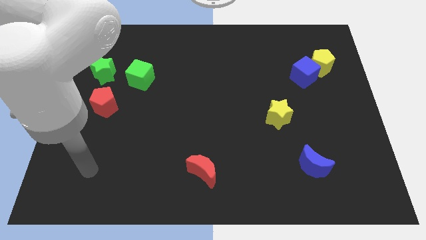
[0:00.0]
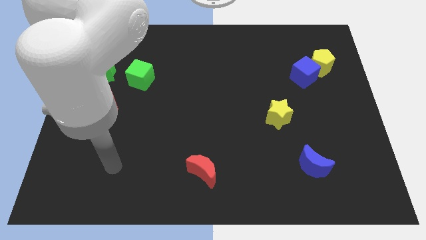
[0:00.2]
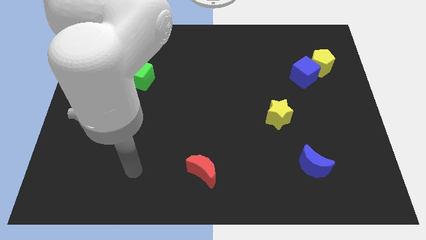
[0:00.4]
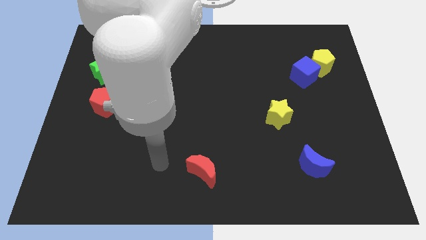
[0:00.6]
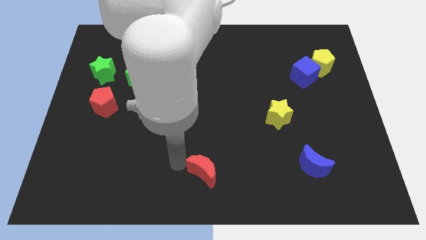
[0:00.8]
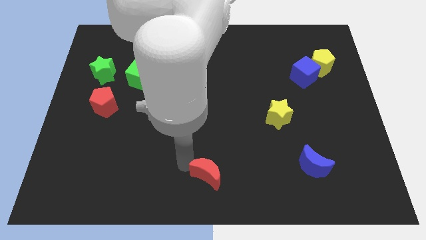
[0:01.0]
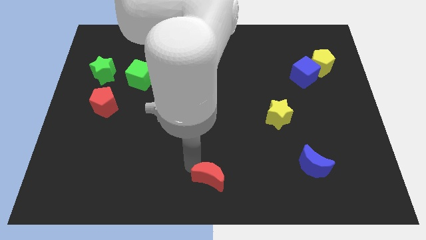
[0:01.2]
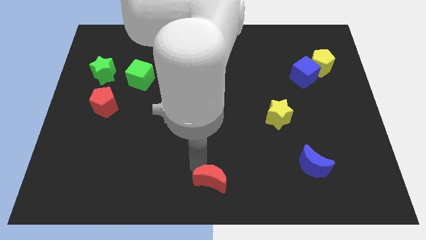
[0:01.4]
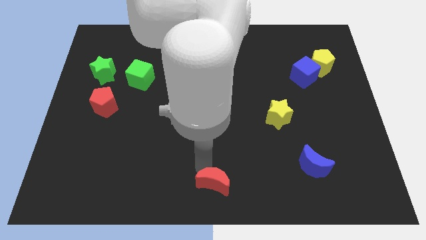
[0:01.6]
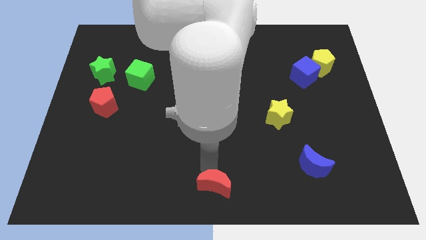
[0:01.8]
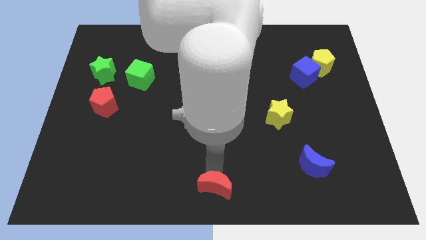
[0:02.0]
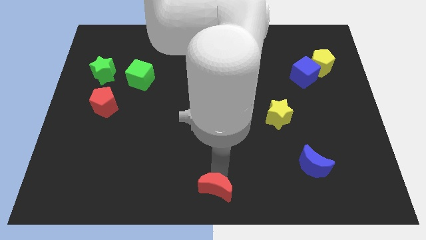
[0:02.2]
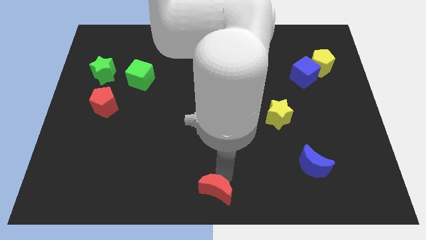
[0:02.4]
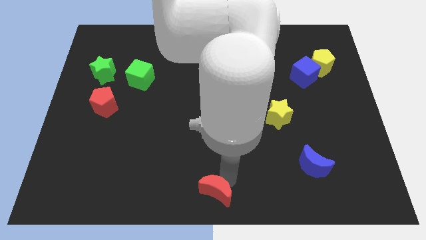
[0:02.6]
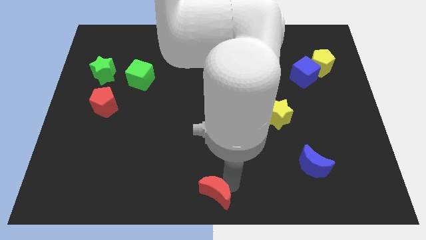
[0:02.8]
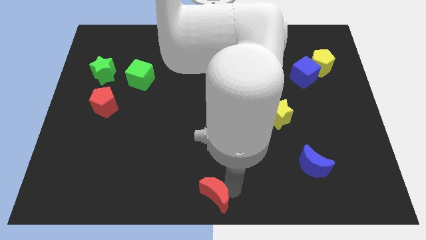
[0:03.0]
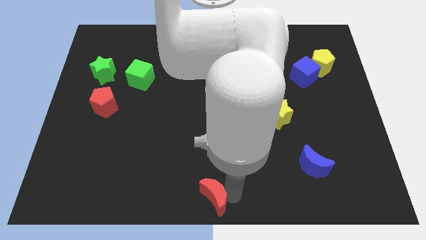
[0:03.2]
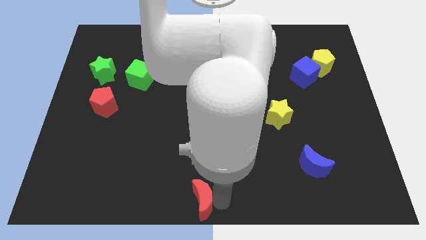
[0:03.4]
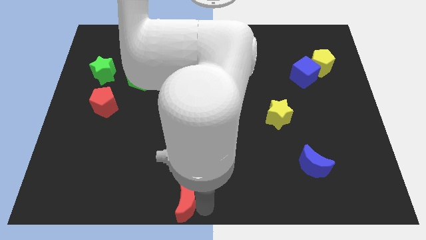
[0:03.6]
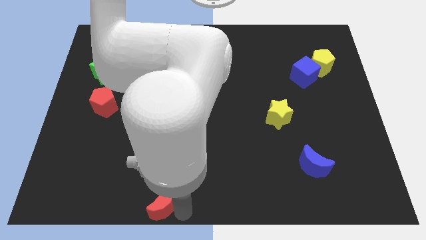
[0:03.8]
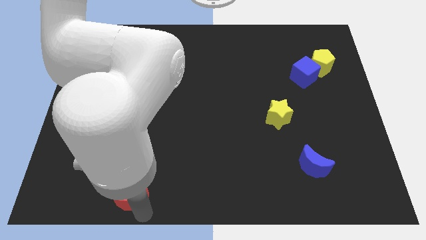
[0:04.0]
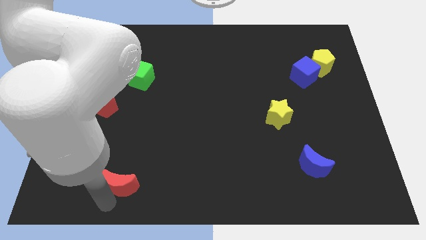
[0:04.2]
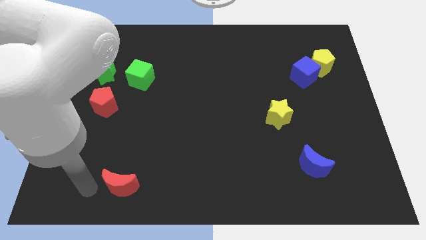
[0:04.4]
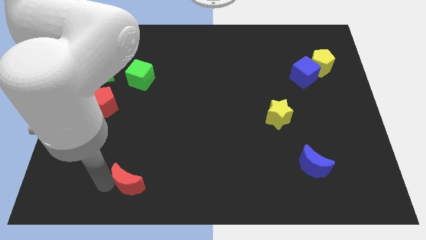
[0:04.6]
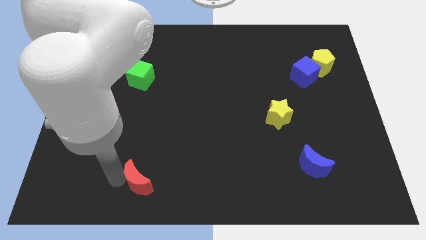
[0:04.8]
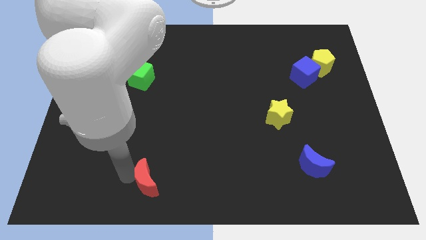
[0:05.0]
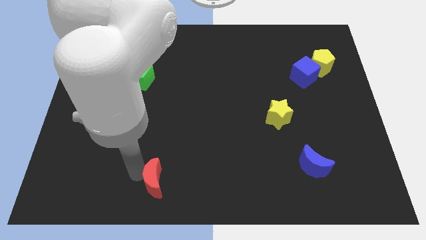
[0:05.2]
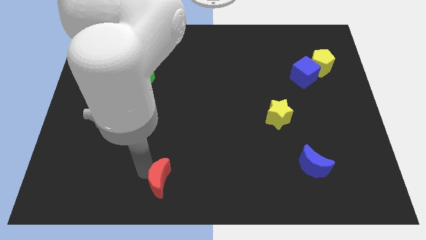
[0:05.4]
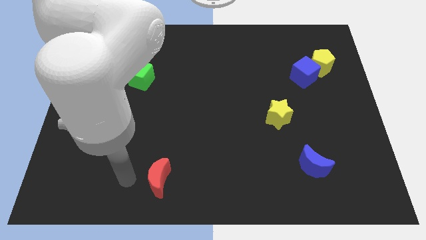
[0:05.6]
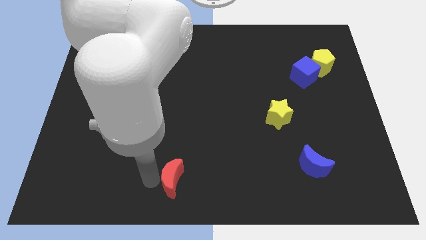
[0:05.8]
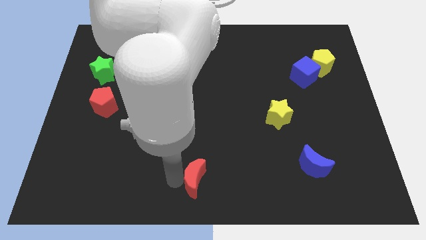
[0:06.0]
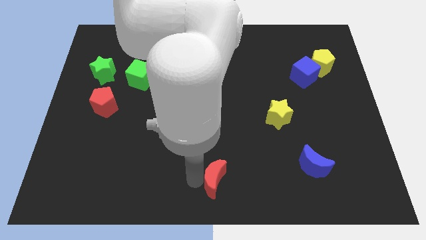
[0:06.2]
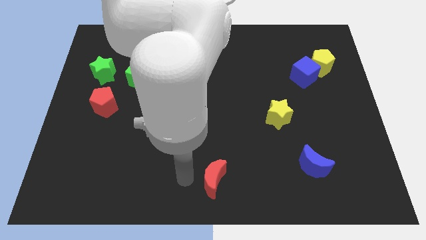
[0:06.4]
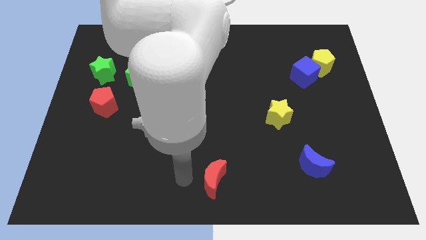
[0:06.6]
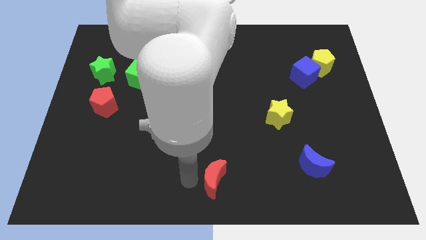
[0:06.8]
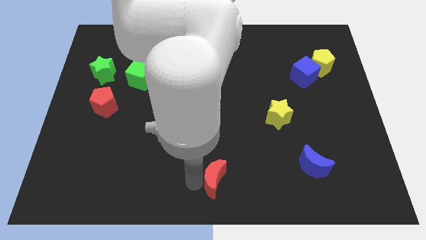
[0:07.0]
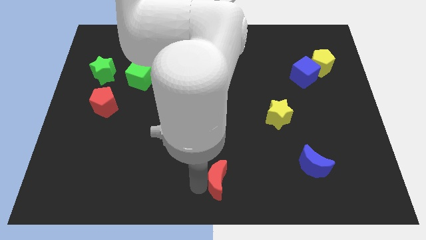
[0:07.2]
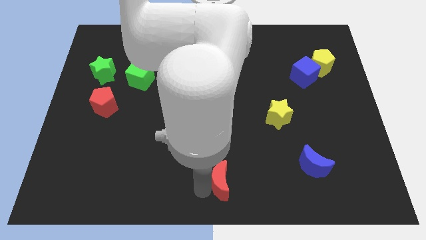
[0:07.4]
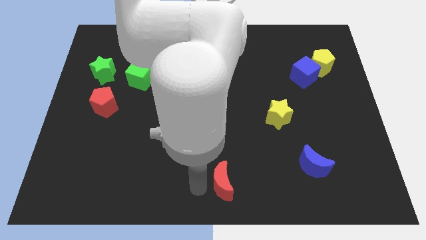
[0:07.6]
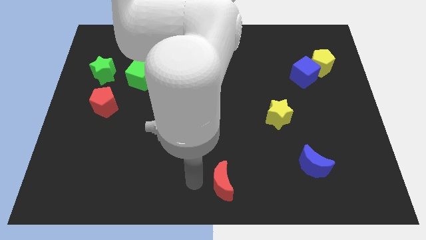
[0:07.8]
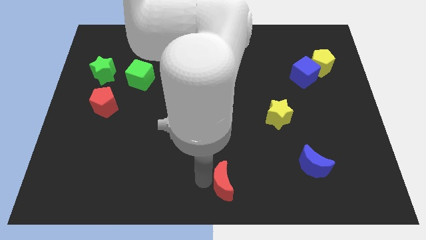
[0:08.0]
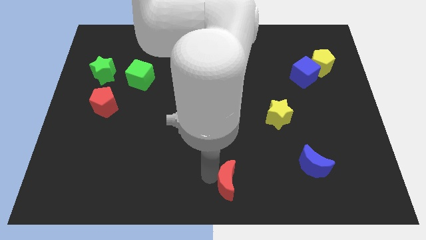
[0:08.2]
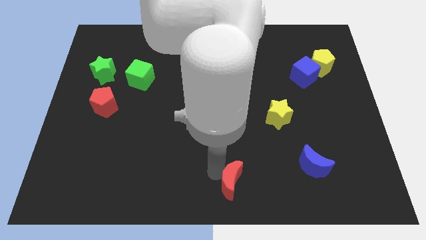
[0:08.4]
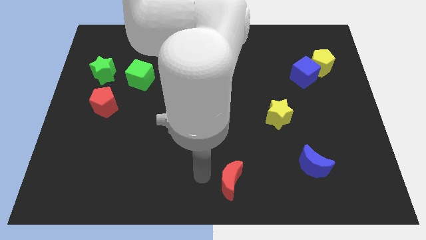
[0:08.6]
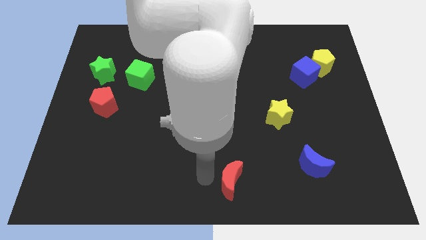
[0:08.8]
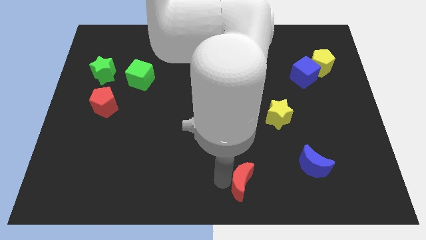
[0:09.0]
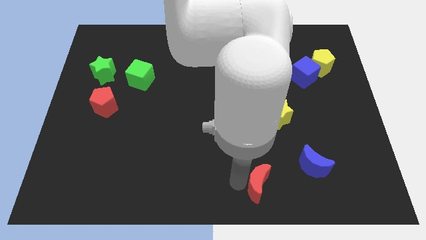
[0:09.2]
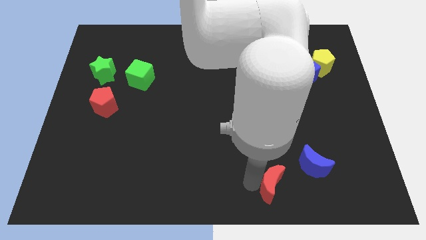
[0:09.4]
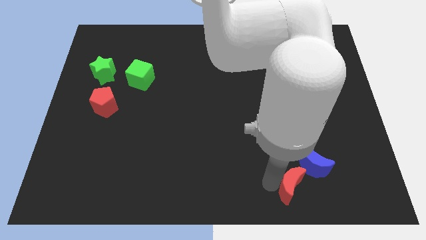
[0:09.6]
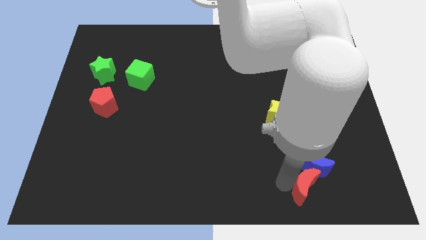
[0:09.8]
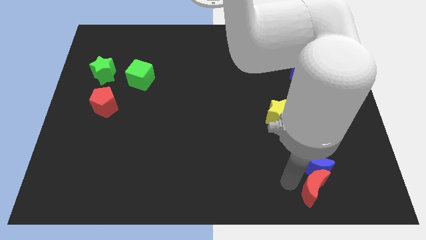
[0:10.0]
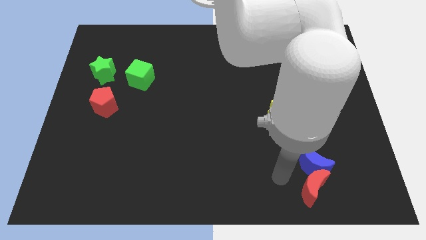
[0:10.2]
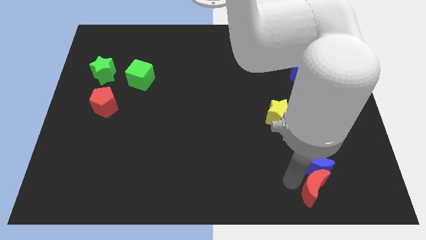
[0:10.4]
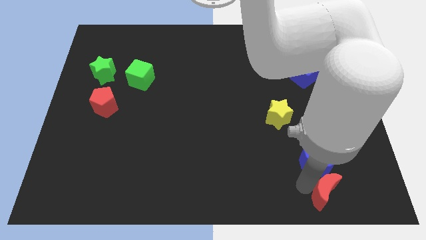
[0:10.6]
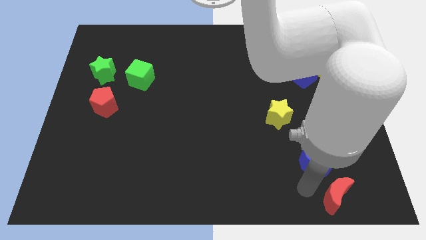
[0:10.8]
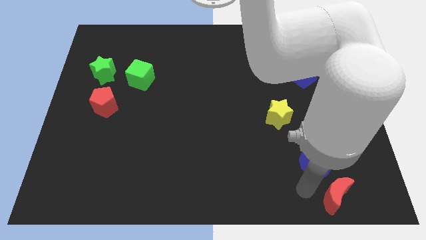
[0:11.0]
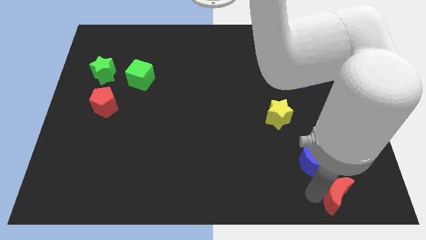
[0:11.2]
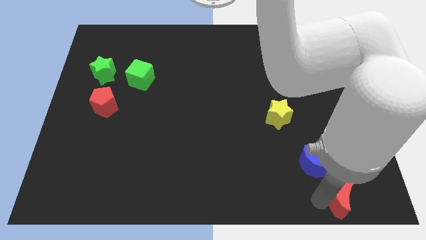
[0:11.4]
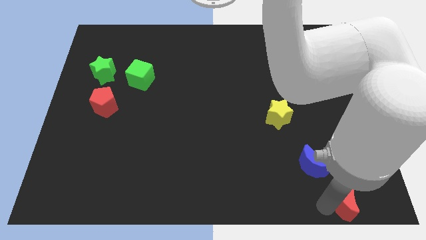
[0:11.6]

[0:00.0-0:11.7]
slide the red moon to the lower right corner
